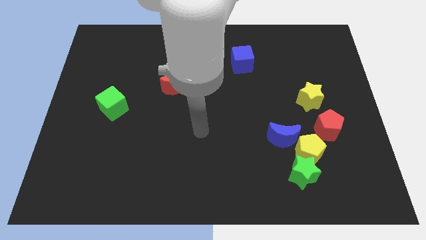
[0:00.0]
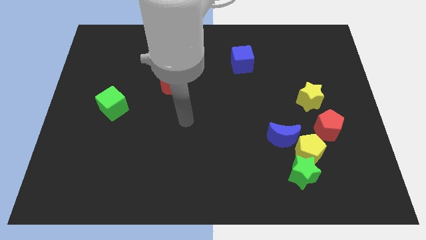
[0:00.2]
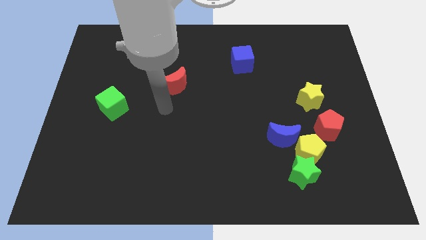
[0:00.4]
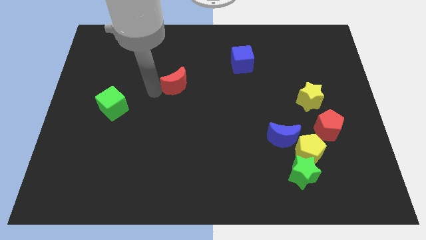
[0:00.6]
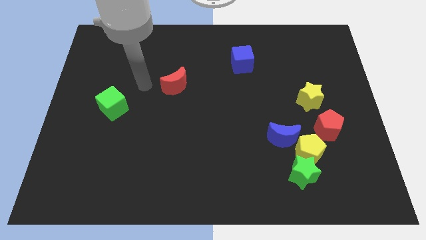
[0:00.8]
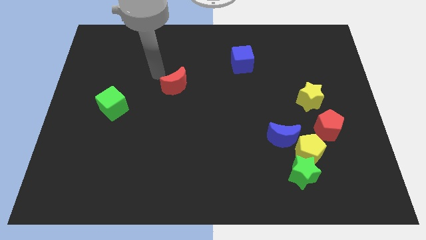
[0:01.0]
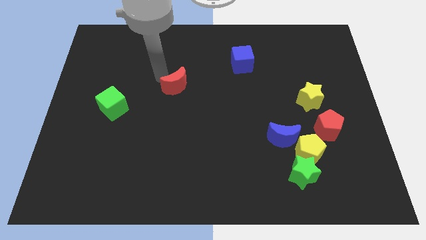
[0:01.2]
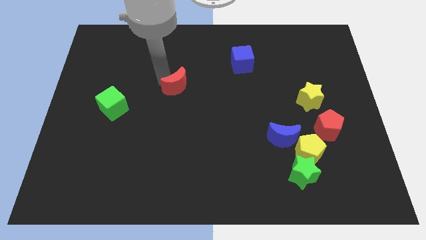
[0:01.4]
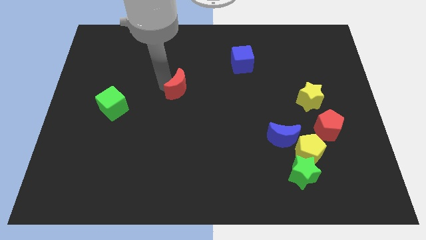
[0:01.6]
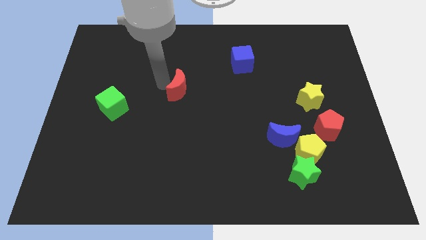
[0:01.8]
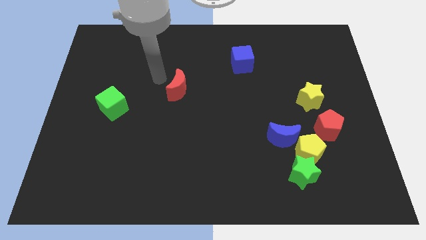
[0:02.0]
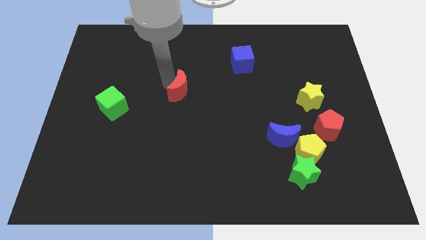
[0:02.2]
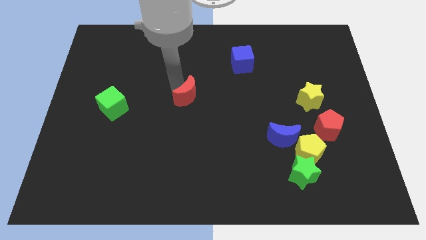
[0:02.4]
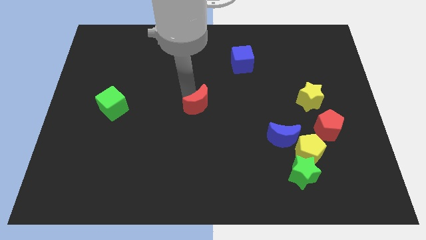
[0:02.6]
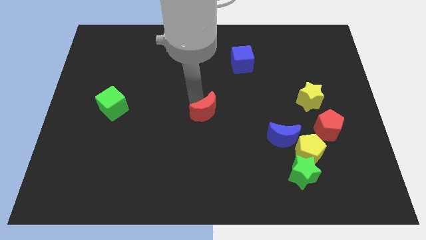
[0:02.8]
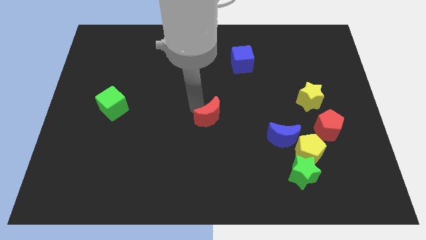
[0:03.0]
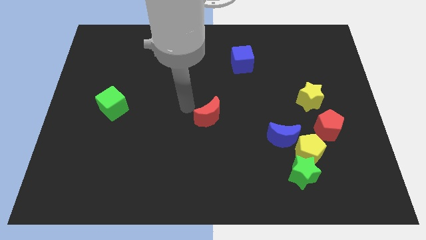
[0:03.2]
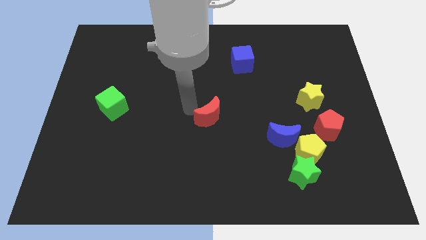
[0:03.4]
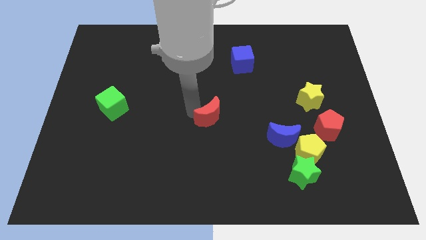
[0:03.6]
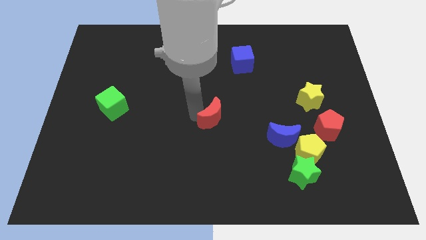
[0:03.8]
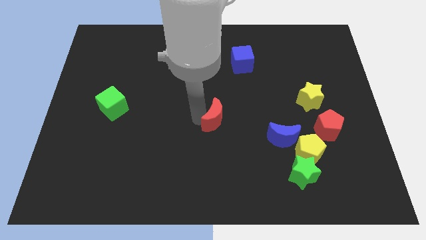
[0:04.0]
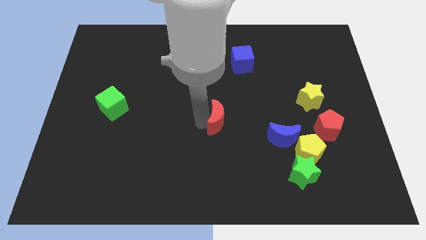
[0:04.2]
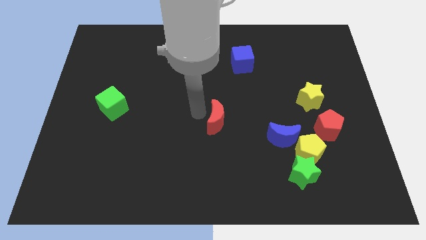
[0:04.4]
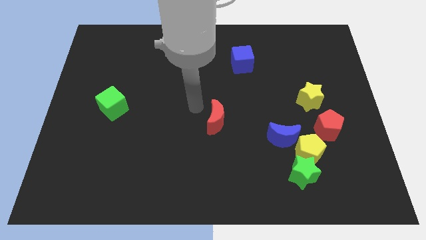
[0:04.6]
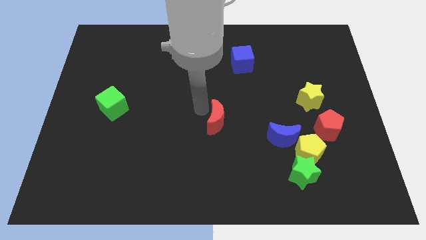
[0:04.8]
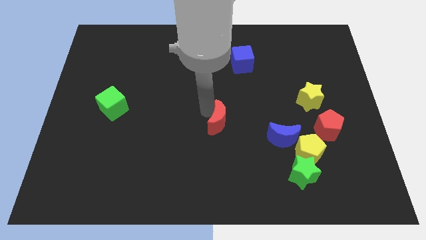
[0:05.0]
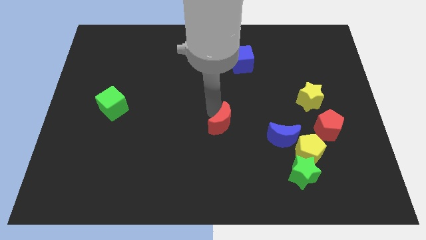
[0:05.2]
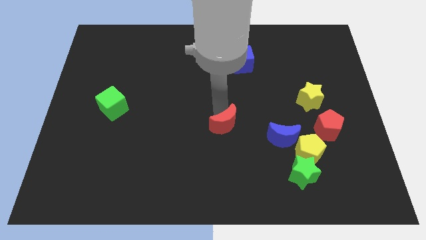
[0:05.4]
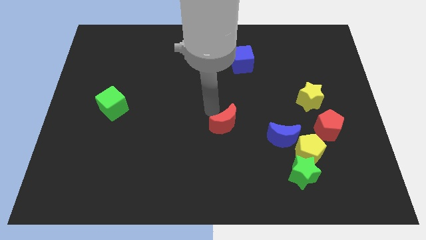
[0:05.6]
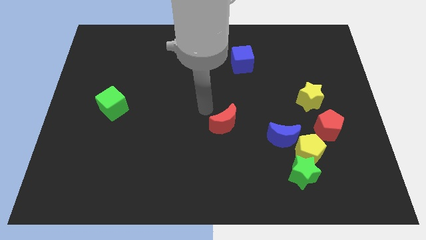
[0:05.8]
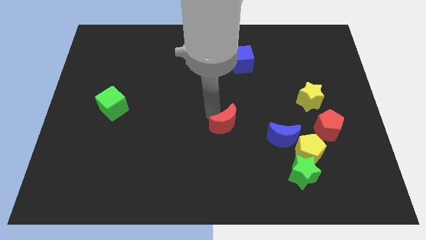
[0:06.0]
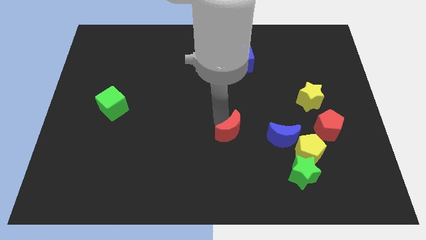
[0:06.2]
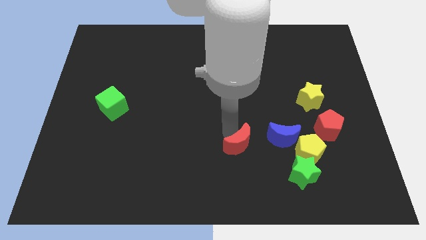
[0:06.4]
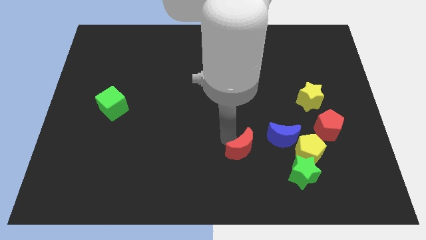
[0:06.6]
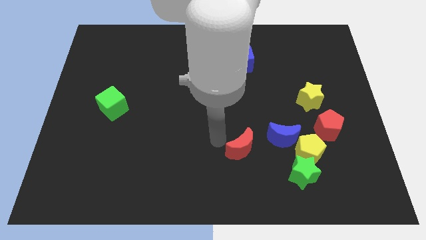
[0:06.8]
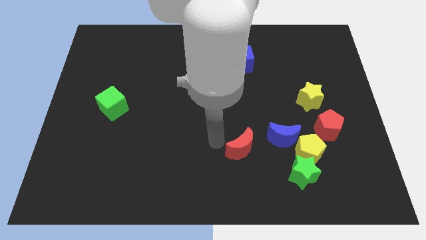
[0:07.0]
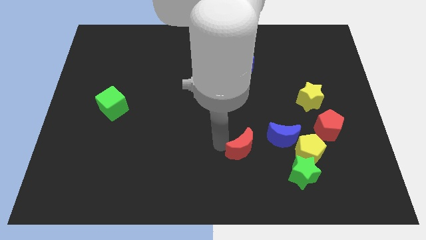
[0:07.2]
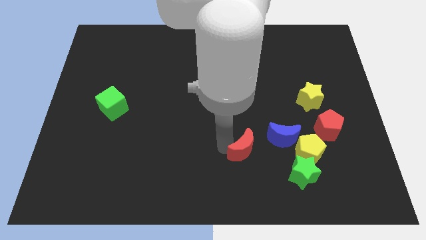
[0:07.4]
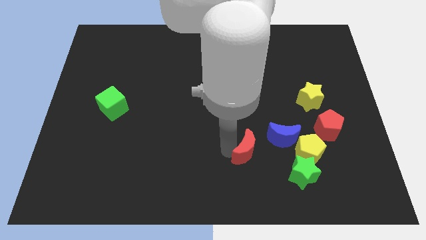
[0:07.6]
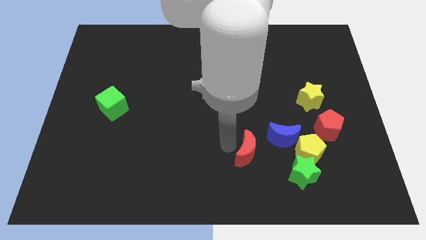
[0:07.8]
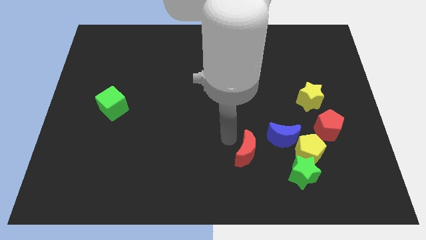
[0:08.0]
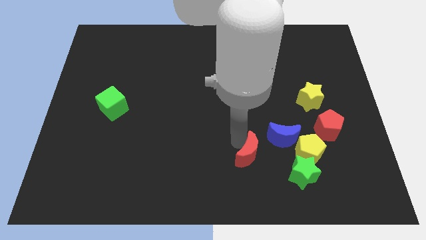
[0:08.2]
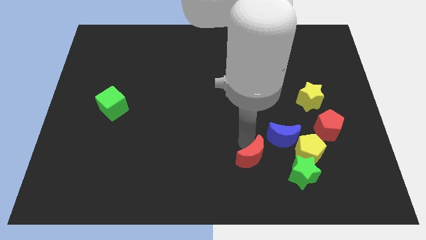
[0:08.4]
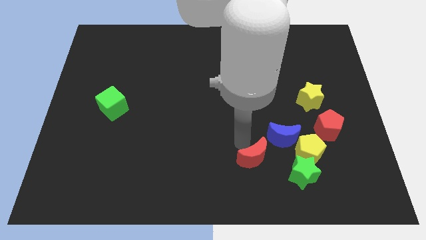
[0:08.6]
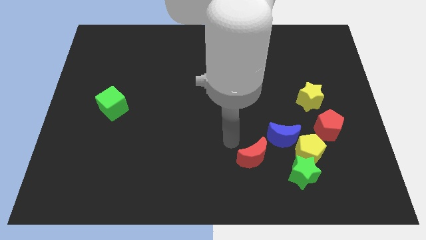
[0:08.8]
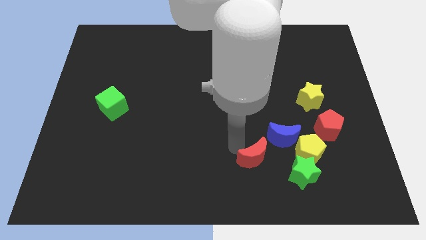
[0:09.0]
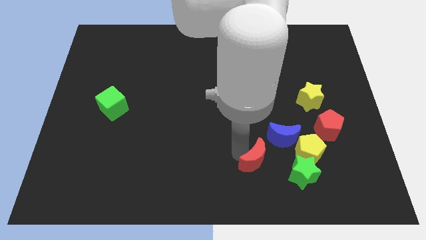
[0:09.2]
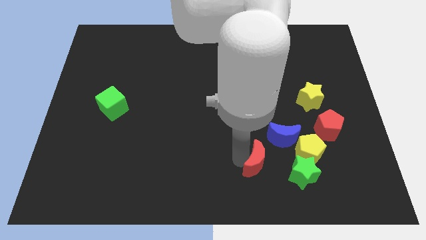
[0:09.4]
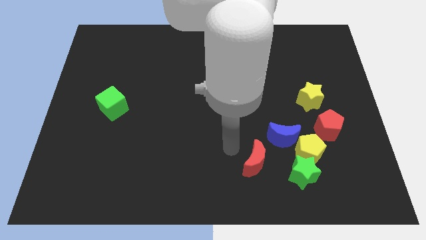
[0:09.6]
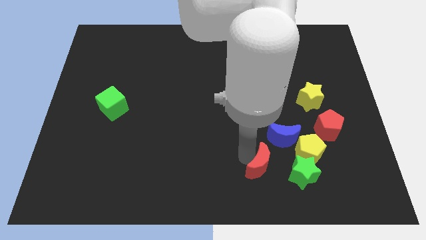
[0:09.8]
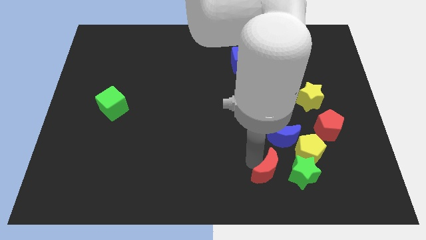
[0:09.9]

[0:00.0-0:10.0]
move the red moon below the blue moon

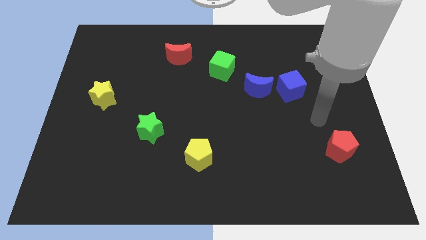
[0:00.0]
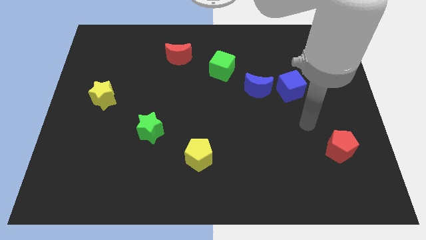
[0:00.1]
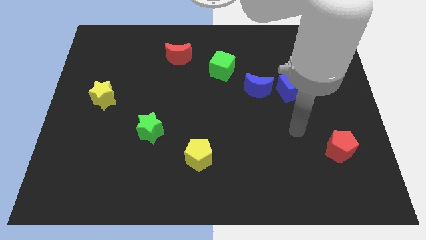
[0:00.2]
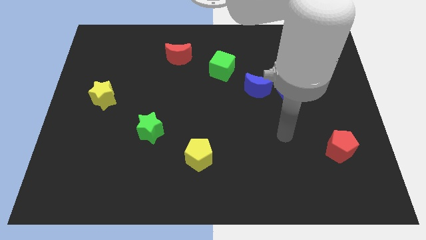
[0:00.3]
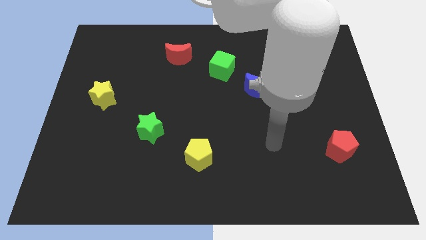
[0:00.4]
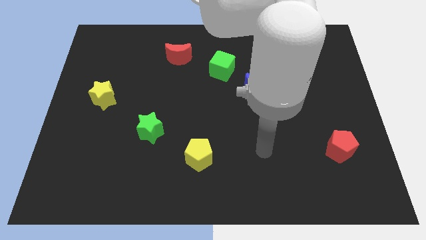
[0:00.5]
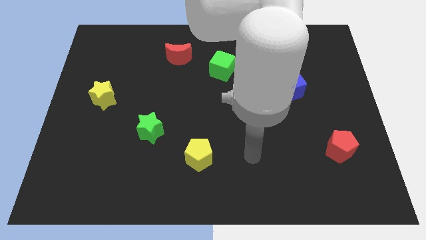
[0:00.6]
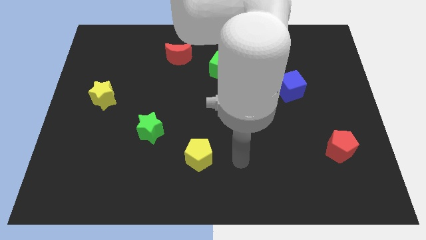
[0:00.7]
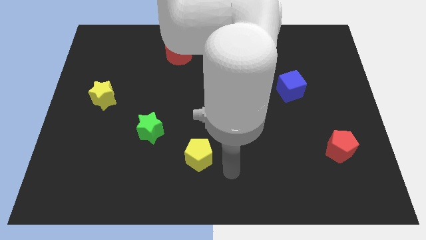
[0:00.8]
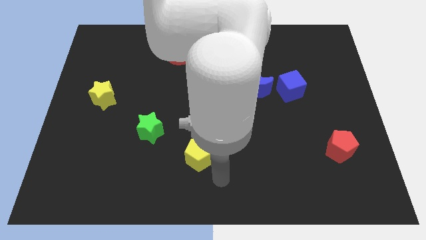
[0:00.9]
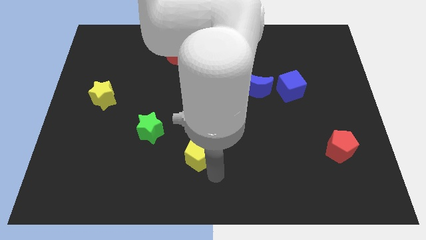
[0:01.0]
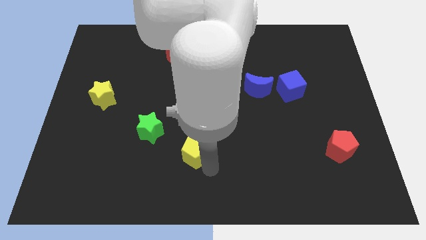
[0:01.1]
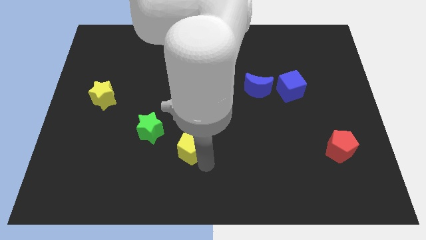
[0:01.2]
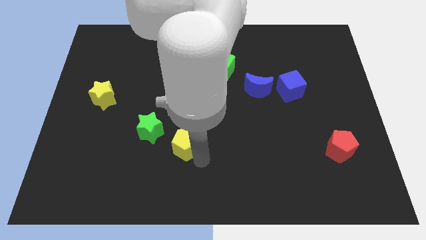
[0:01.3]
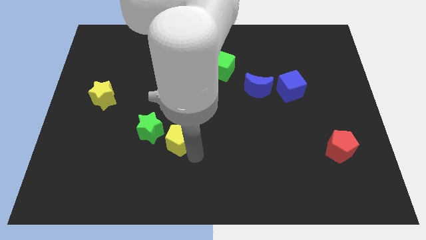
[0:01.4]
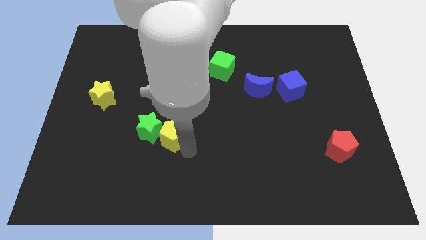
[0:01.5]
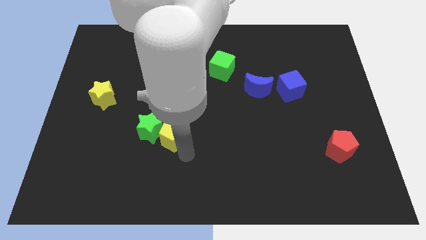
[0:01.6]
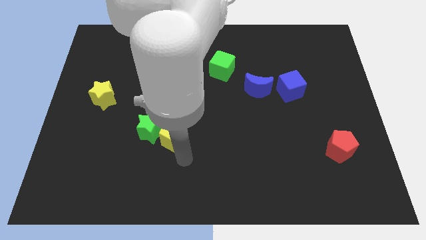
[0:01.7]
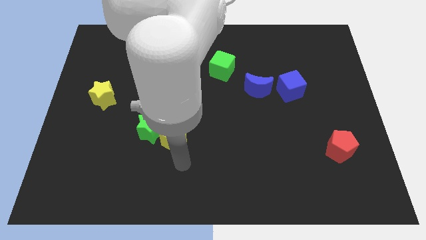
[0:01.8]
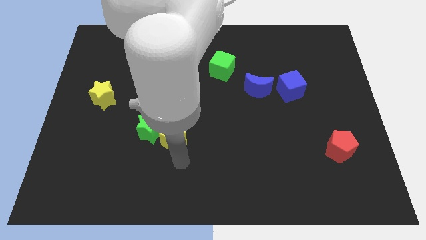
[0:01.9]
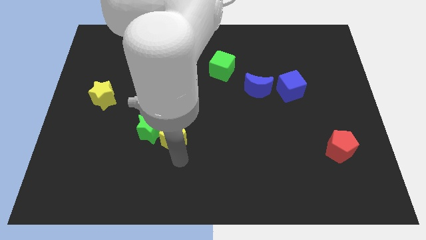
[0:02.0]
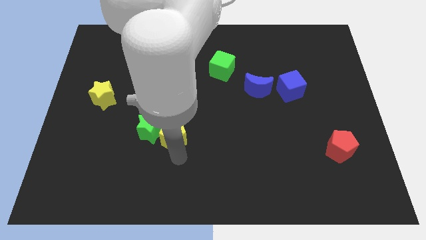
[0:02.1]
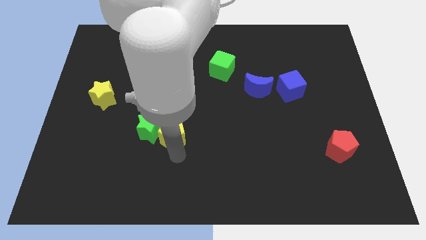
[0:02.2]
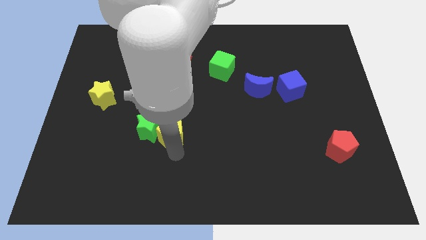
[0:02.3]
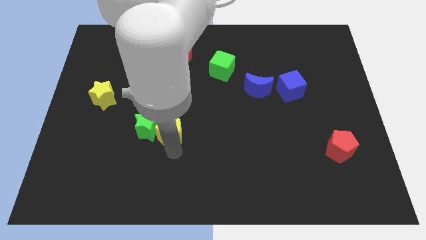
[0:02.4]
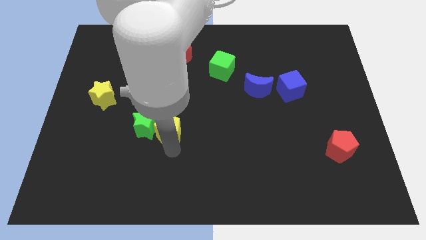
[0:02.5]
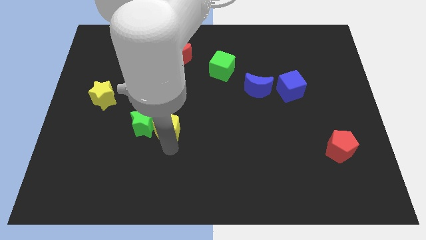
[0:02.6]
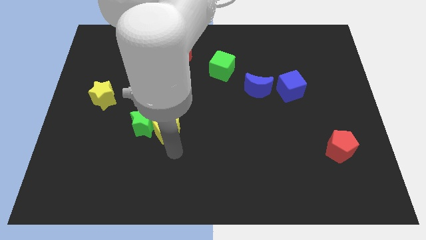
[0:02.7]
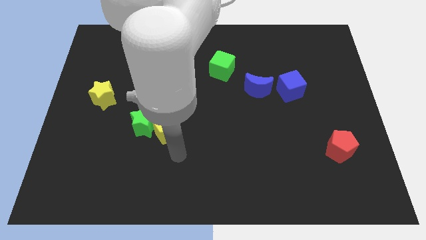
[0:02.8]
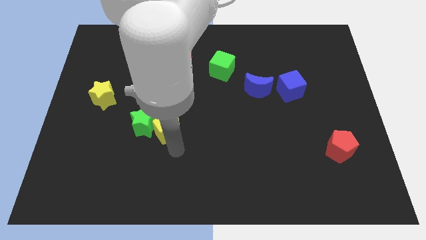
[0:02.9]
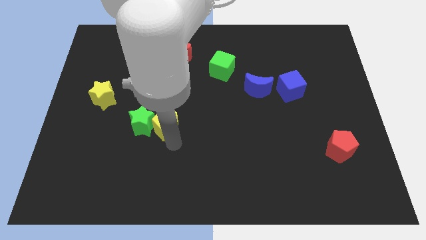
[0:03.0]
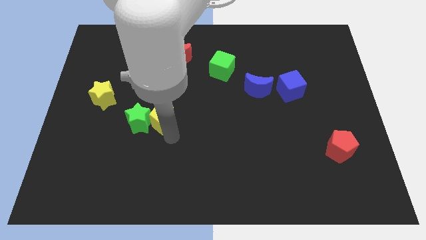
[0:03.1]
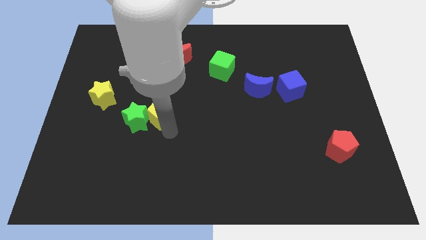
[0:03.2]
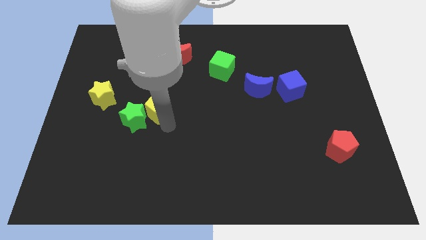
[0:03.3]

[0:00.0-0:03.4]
put the yellow pentagon just right of the yellow star
